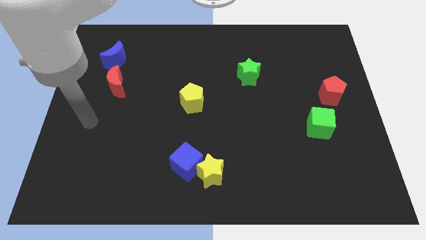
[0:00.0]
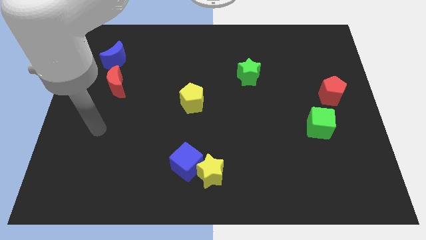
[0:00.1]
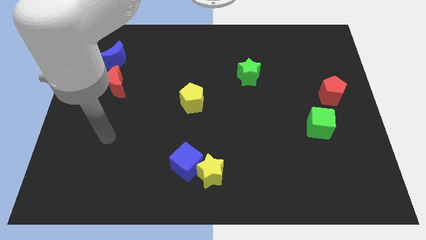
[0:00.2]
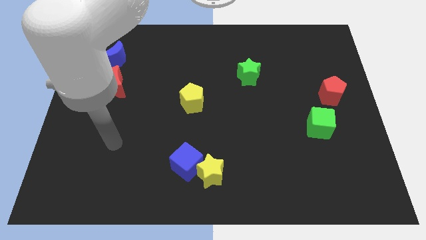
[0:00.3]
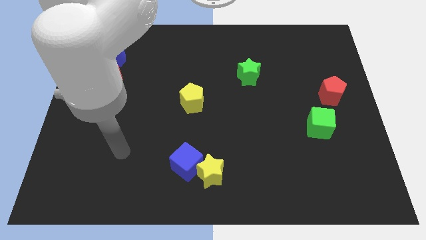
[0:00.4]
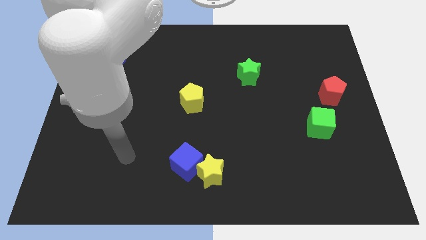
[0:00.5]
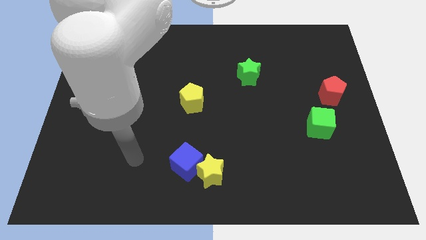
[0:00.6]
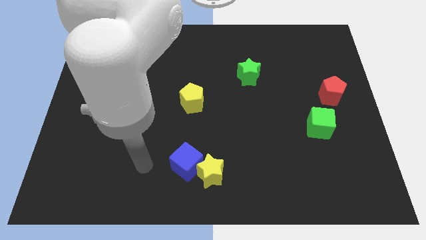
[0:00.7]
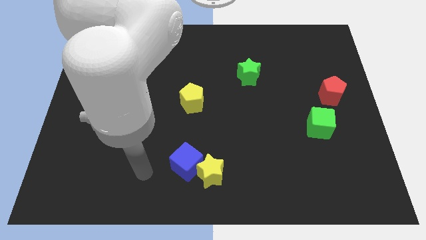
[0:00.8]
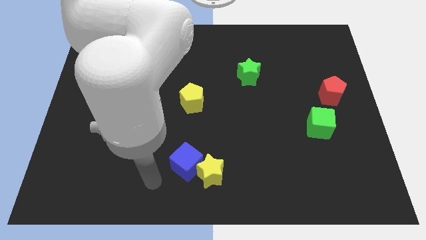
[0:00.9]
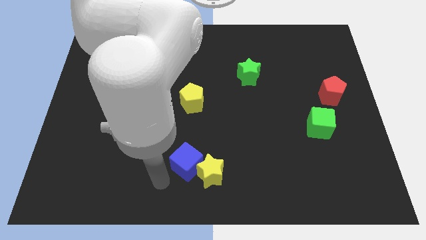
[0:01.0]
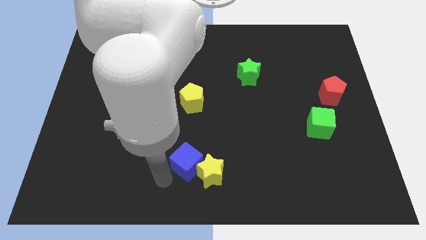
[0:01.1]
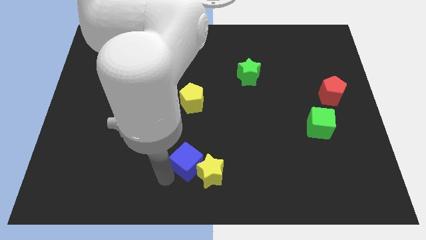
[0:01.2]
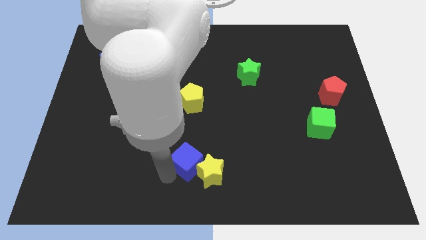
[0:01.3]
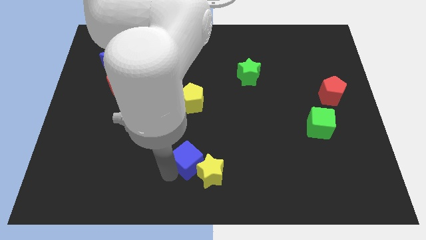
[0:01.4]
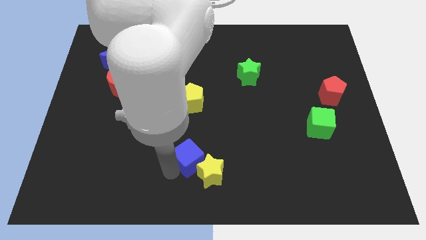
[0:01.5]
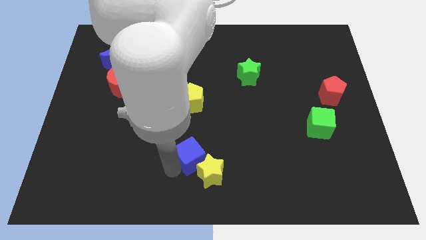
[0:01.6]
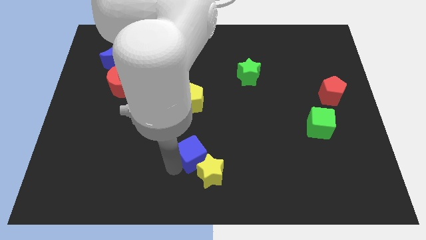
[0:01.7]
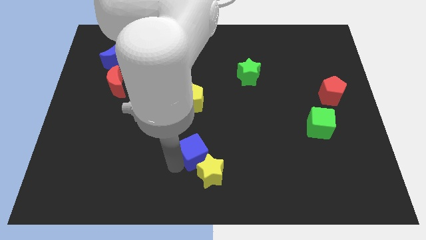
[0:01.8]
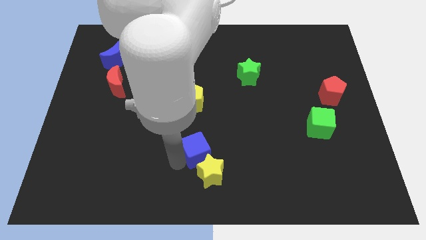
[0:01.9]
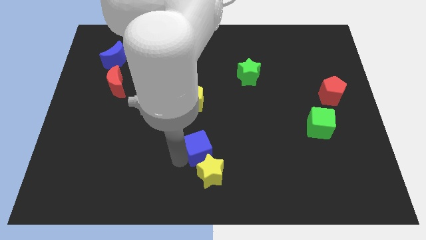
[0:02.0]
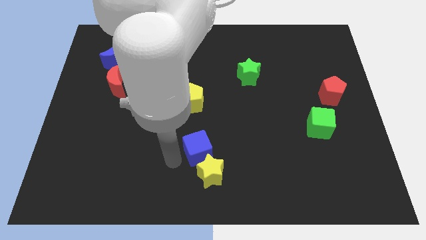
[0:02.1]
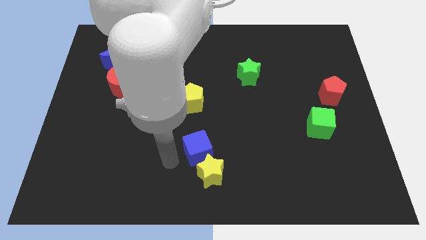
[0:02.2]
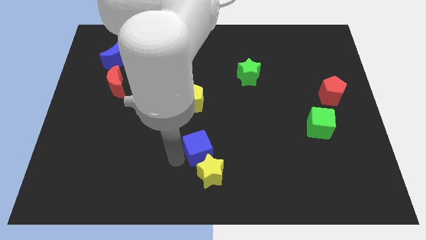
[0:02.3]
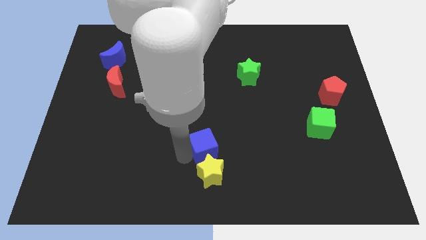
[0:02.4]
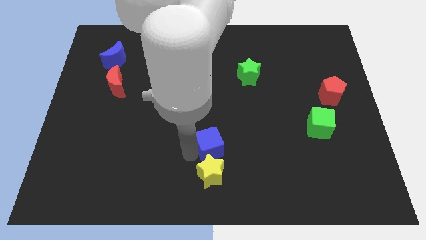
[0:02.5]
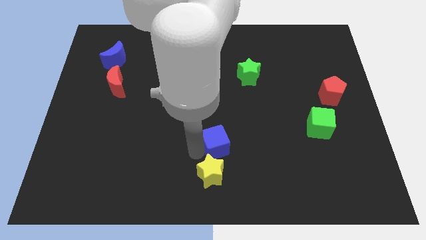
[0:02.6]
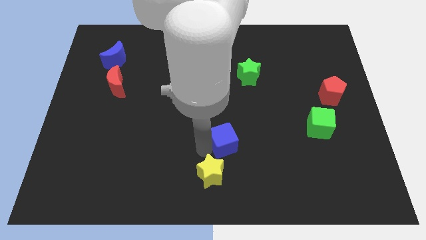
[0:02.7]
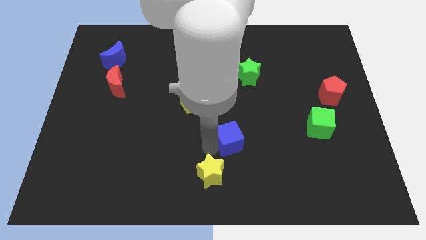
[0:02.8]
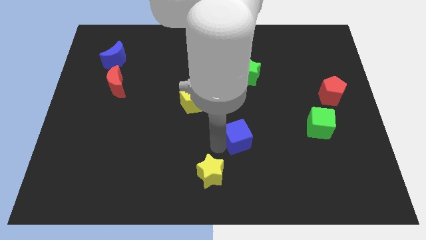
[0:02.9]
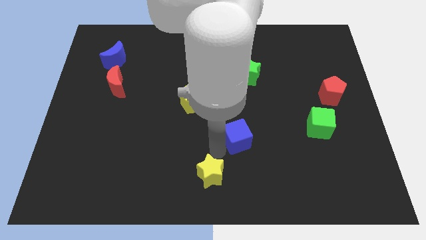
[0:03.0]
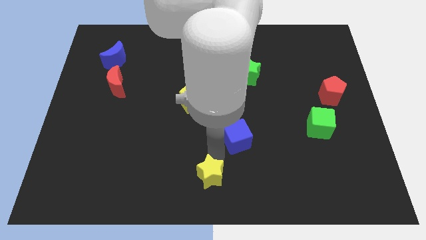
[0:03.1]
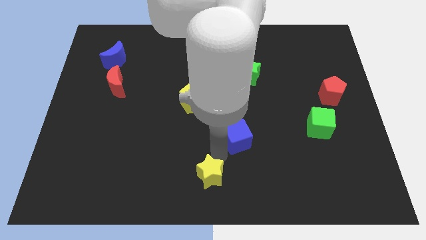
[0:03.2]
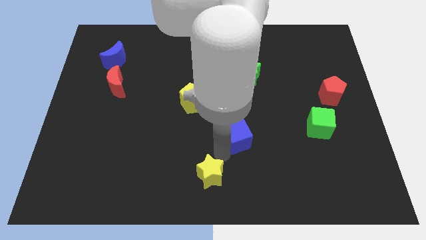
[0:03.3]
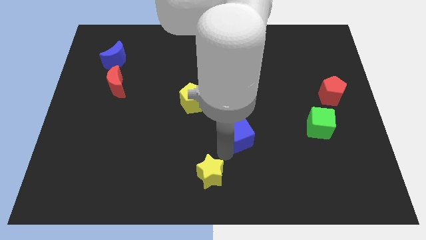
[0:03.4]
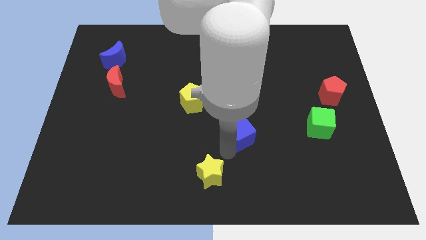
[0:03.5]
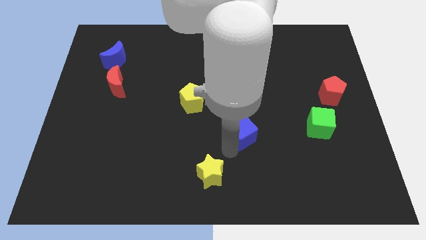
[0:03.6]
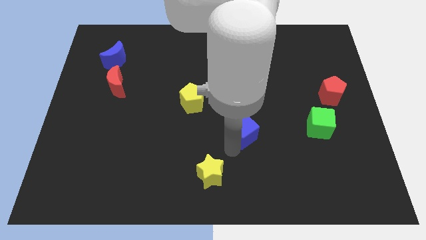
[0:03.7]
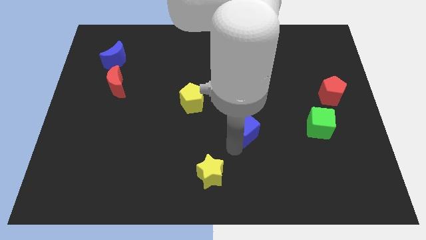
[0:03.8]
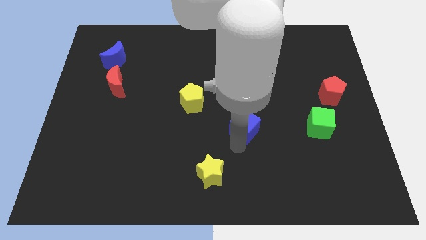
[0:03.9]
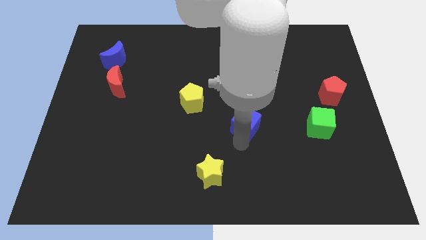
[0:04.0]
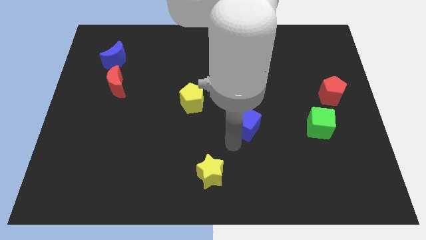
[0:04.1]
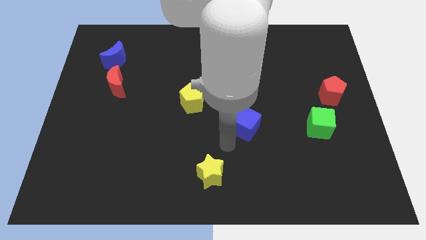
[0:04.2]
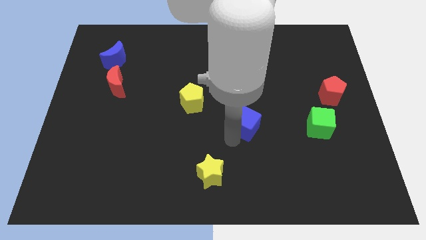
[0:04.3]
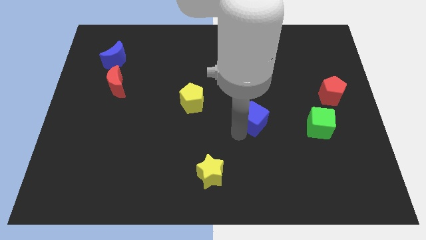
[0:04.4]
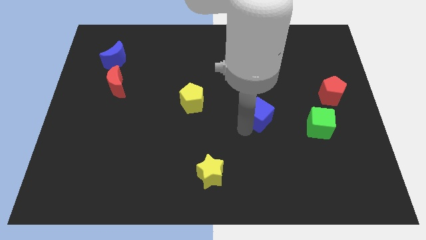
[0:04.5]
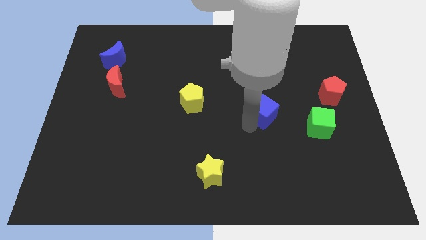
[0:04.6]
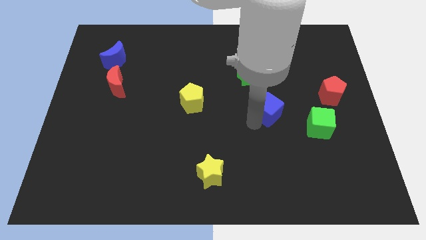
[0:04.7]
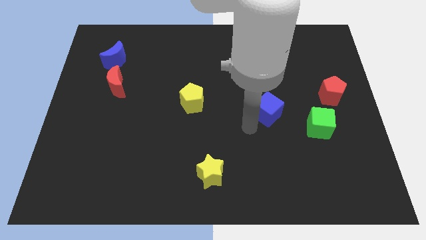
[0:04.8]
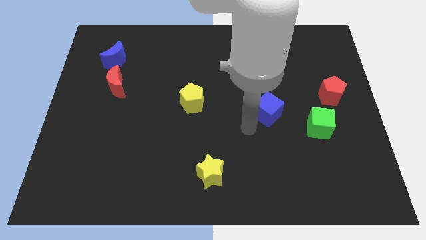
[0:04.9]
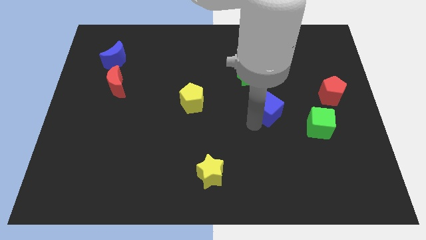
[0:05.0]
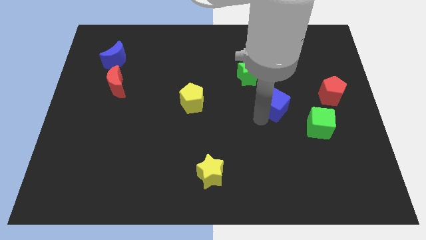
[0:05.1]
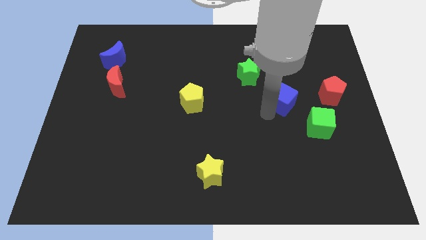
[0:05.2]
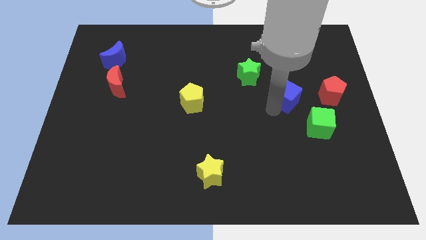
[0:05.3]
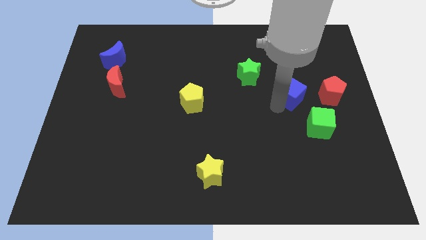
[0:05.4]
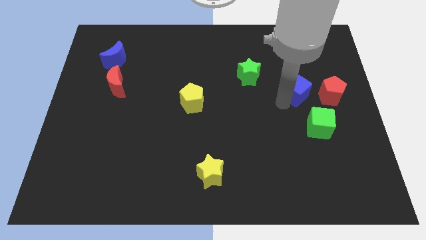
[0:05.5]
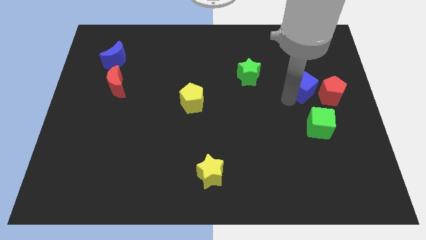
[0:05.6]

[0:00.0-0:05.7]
push the blue cube to the top left side of the red pentagon

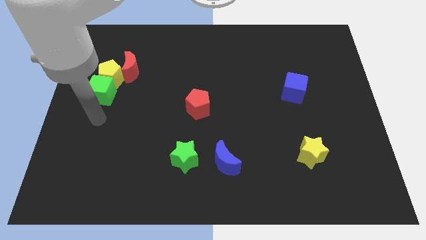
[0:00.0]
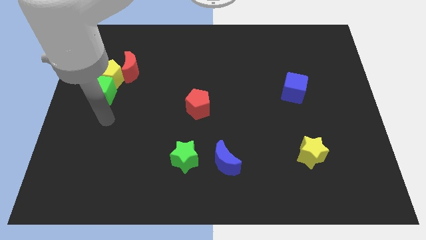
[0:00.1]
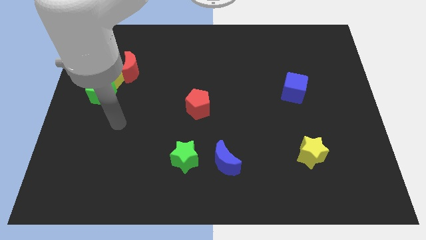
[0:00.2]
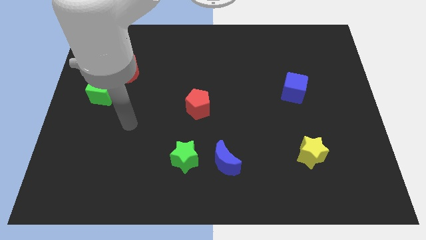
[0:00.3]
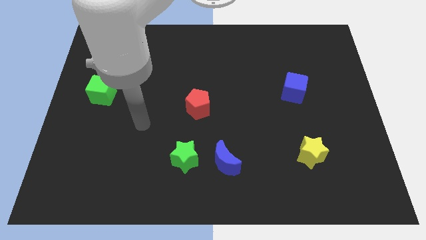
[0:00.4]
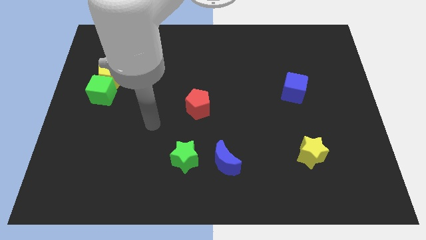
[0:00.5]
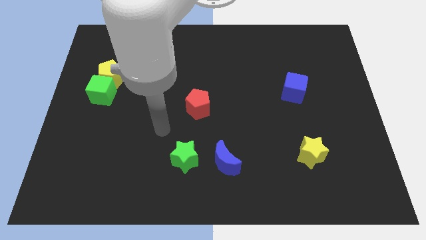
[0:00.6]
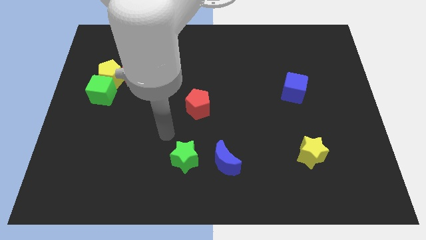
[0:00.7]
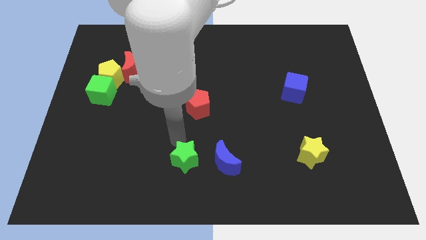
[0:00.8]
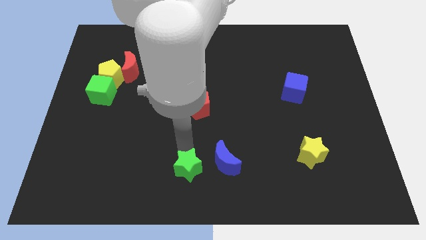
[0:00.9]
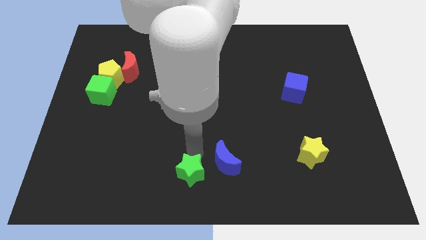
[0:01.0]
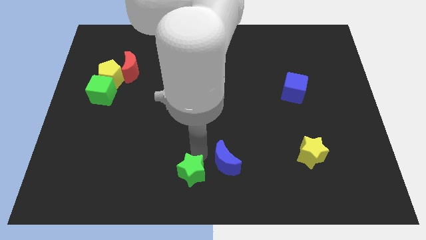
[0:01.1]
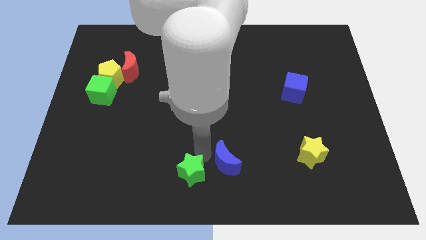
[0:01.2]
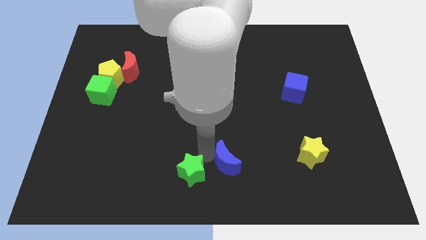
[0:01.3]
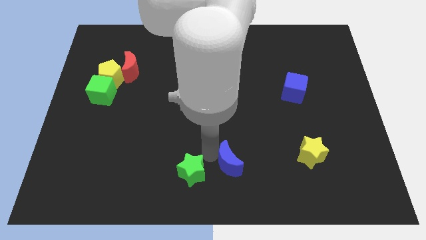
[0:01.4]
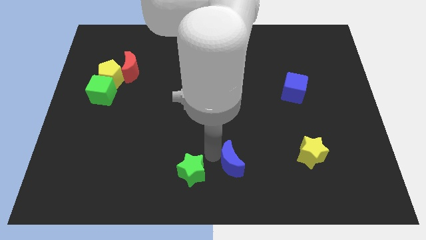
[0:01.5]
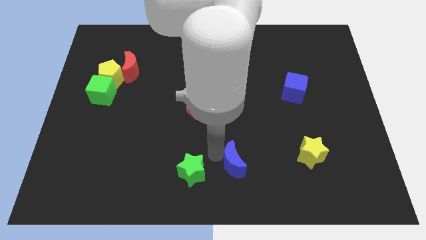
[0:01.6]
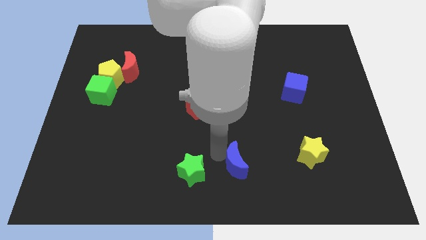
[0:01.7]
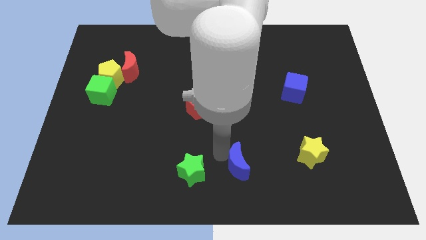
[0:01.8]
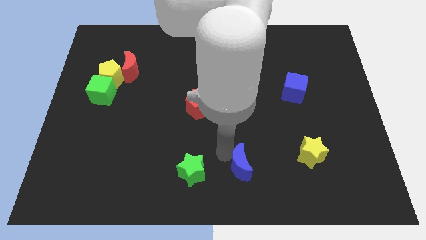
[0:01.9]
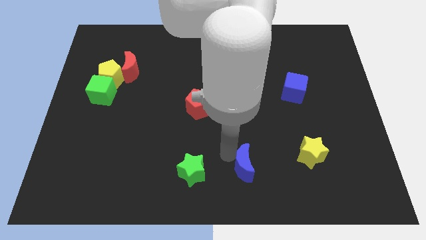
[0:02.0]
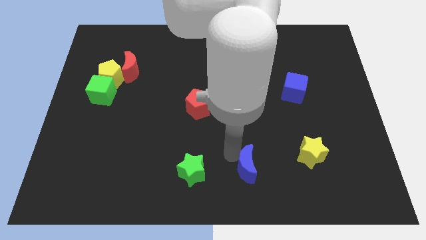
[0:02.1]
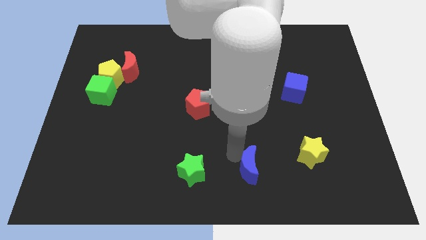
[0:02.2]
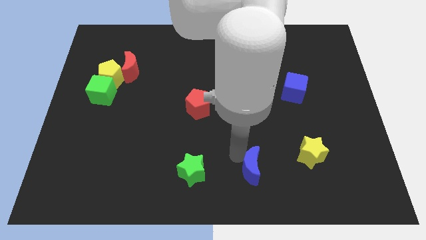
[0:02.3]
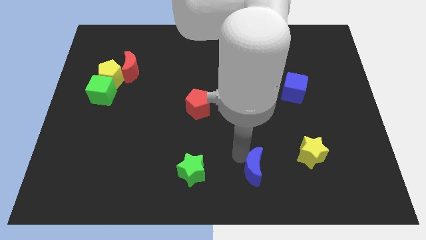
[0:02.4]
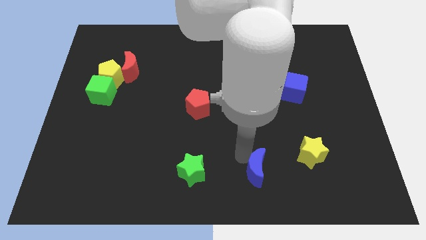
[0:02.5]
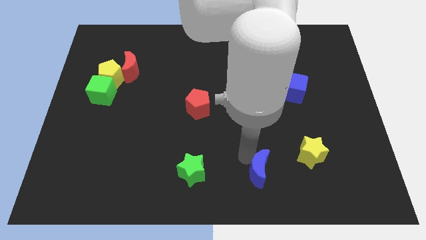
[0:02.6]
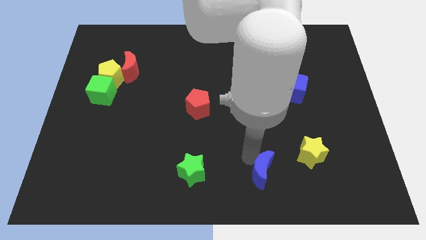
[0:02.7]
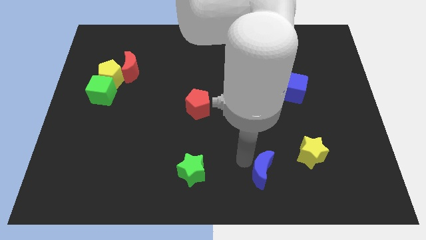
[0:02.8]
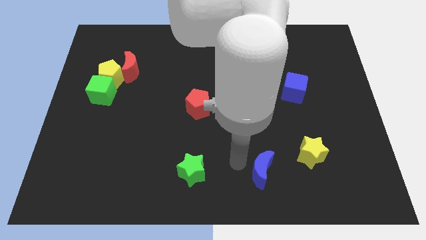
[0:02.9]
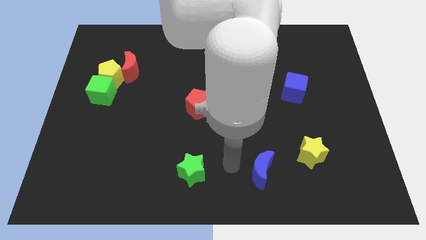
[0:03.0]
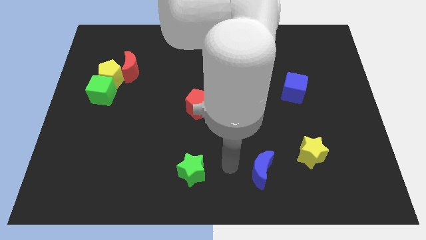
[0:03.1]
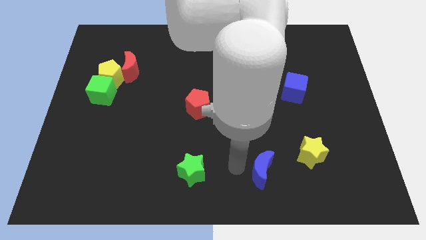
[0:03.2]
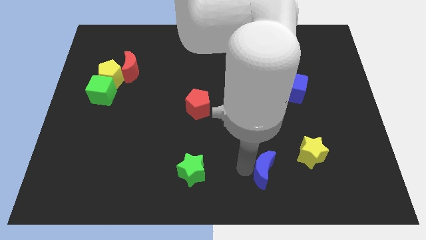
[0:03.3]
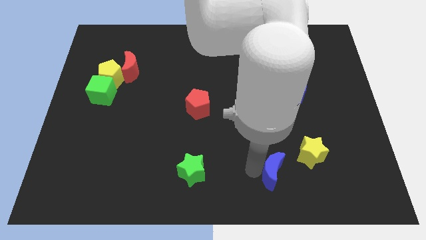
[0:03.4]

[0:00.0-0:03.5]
put the blue moon to the bottom left of the yellow star
